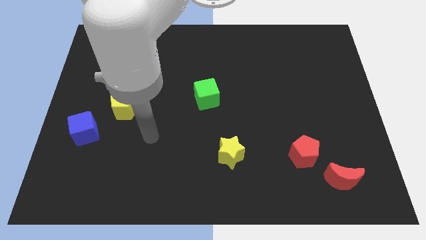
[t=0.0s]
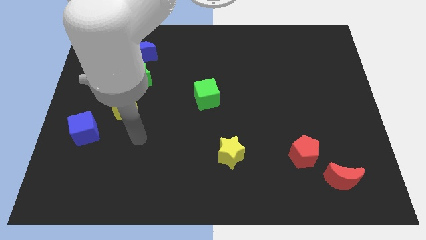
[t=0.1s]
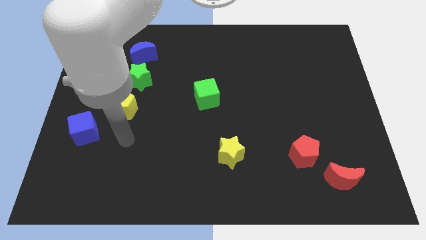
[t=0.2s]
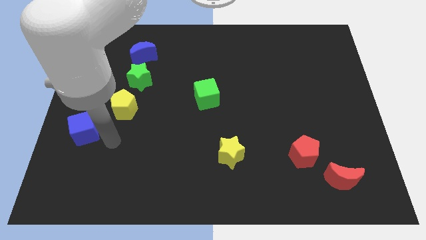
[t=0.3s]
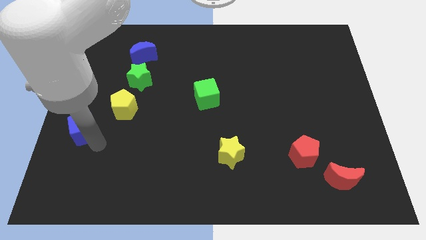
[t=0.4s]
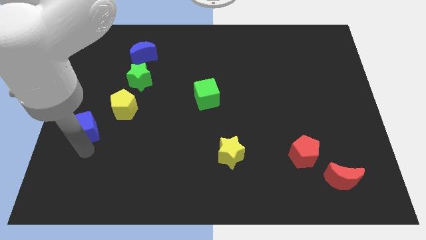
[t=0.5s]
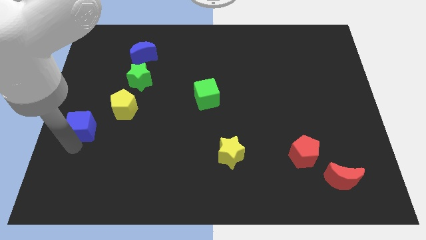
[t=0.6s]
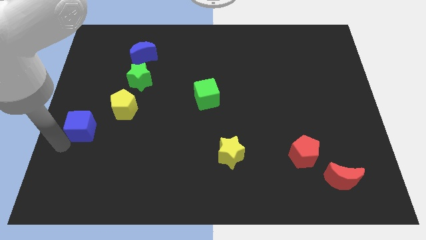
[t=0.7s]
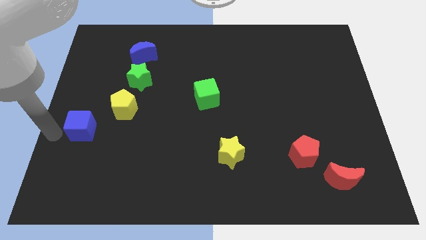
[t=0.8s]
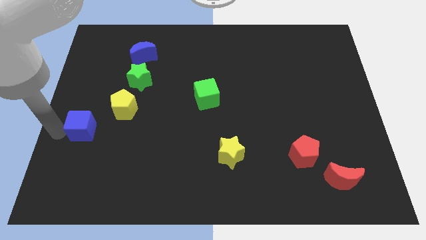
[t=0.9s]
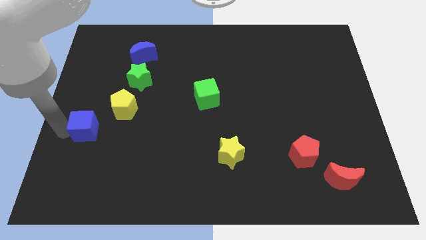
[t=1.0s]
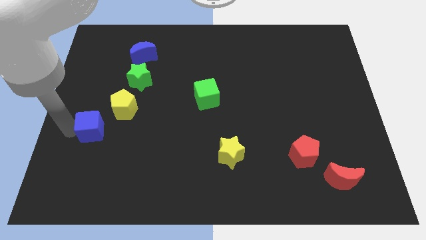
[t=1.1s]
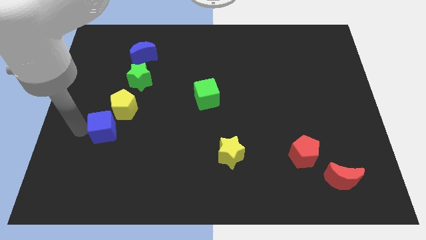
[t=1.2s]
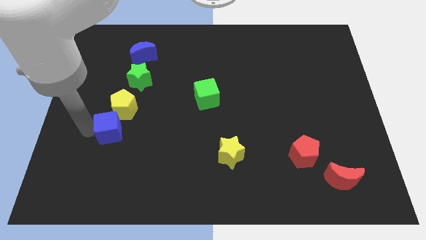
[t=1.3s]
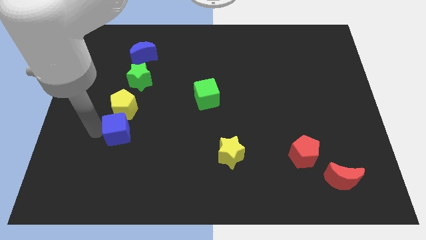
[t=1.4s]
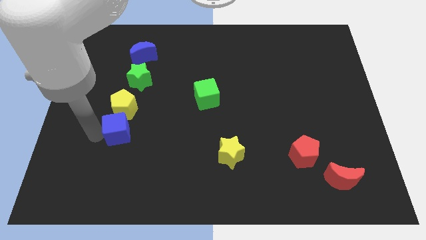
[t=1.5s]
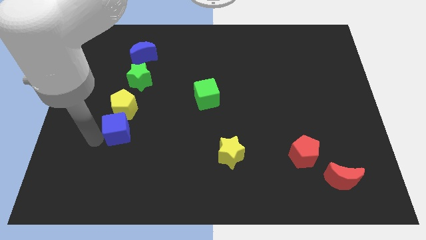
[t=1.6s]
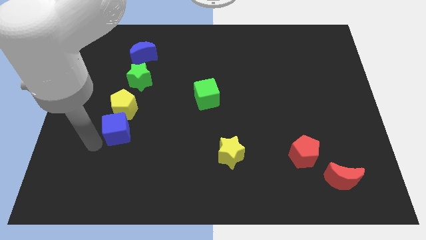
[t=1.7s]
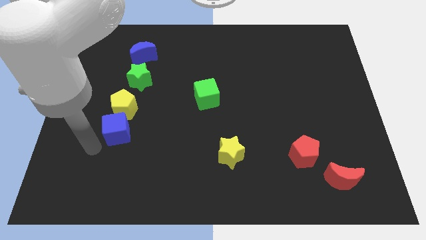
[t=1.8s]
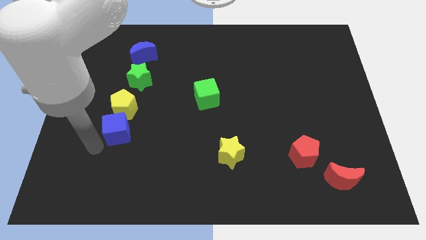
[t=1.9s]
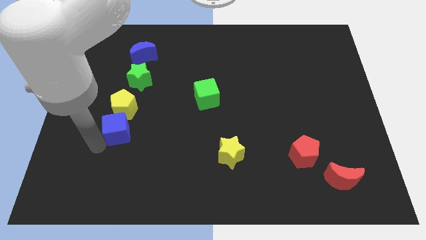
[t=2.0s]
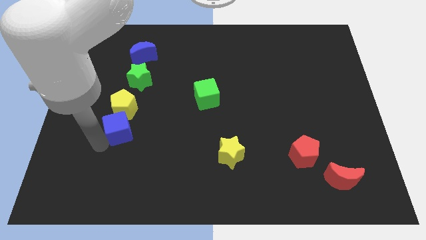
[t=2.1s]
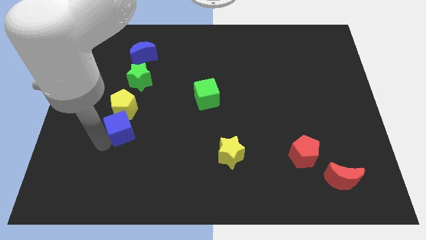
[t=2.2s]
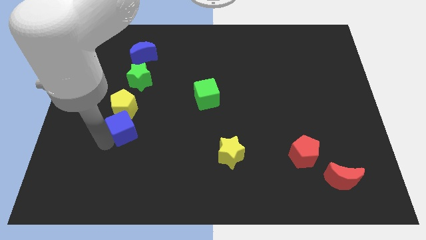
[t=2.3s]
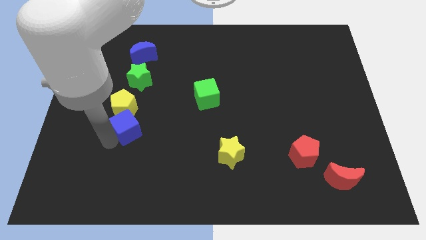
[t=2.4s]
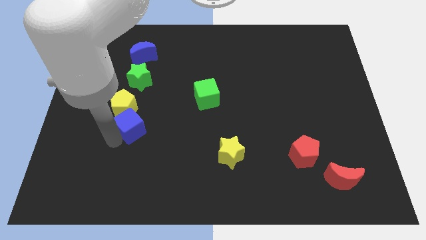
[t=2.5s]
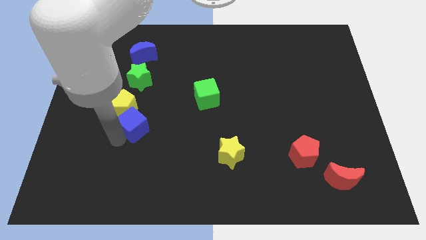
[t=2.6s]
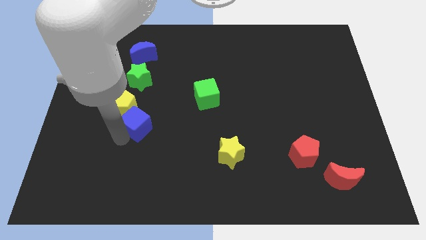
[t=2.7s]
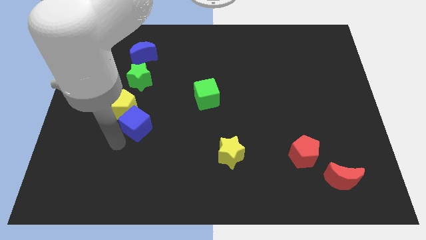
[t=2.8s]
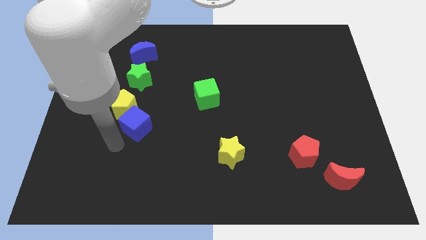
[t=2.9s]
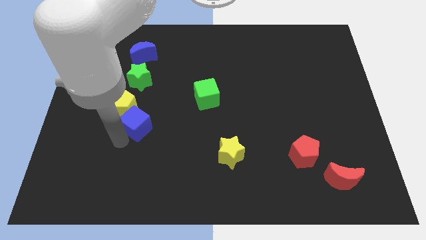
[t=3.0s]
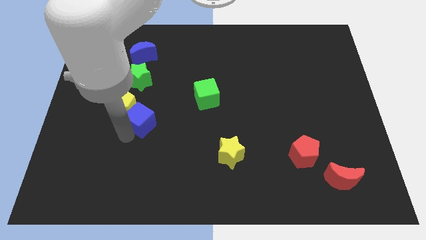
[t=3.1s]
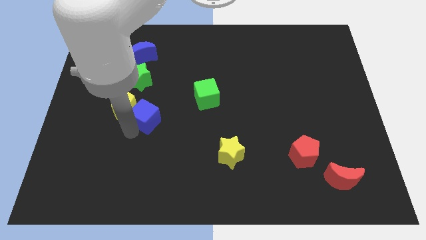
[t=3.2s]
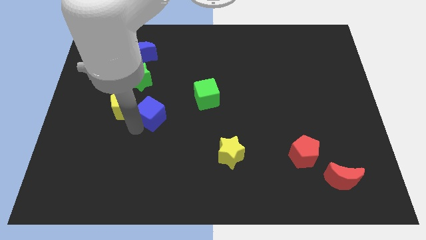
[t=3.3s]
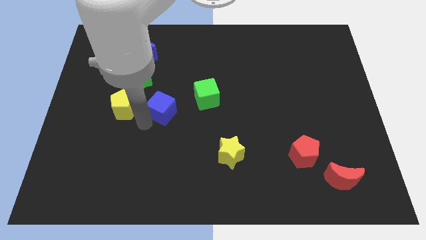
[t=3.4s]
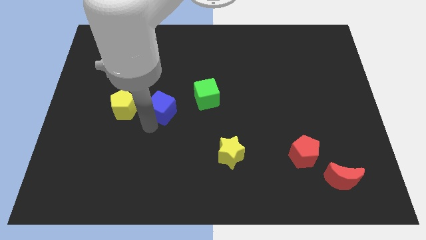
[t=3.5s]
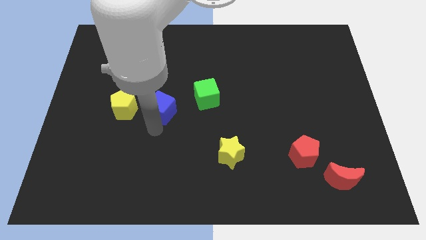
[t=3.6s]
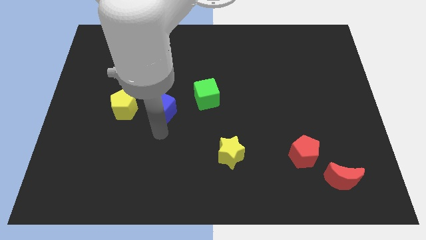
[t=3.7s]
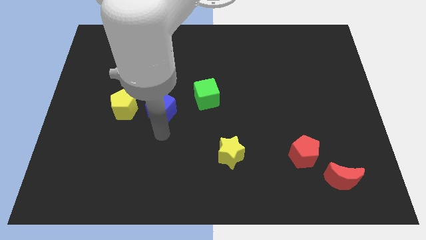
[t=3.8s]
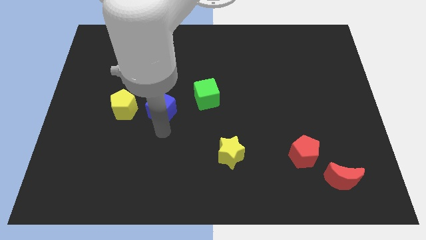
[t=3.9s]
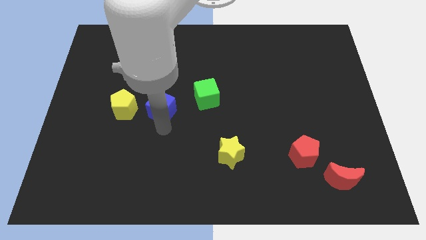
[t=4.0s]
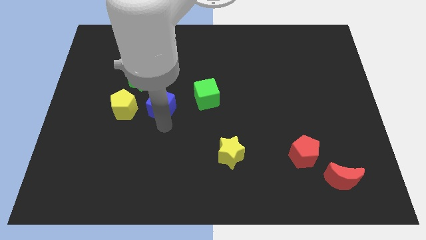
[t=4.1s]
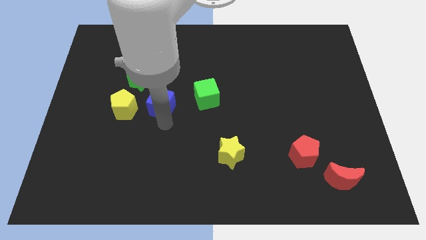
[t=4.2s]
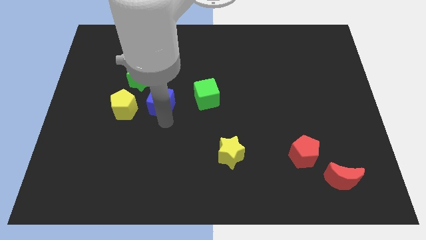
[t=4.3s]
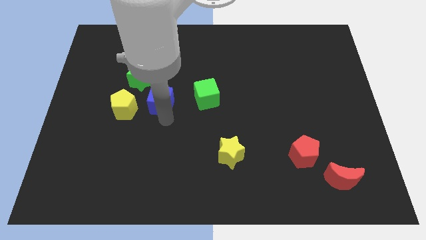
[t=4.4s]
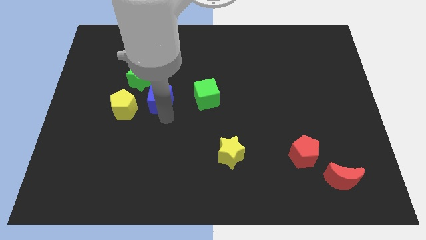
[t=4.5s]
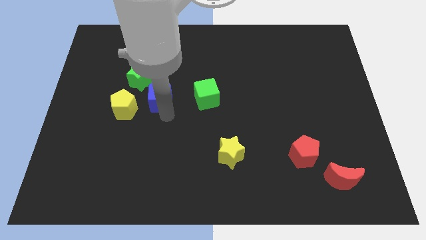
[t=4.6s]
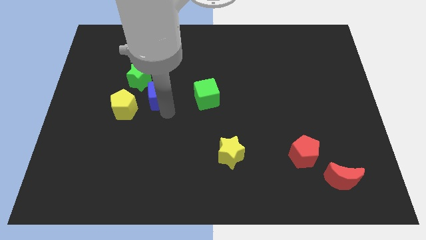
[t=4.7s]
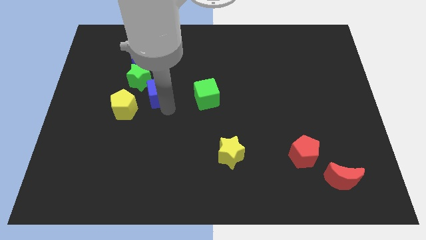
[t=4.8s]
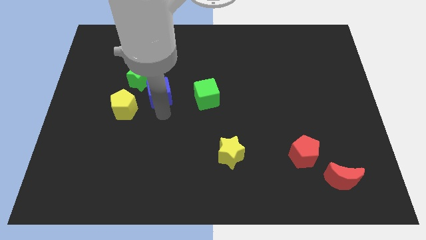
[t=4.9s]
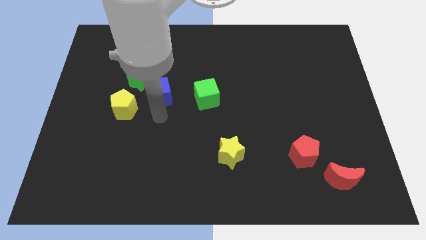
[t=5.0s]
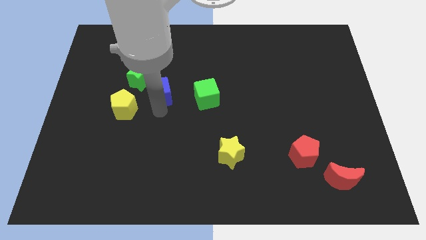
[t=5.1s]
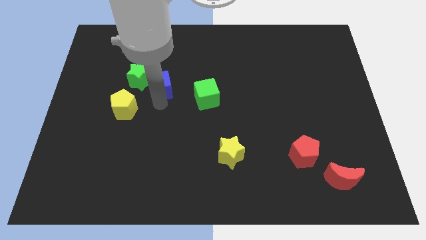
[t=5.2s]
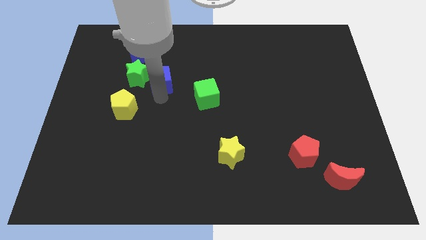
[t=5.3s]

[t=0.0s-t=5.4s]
move the blue cube to the bottom right of the blue moon

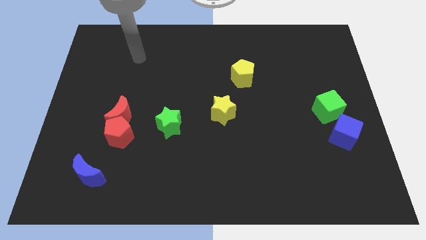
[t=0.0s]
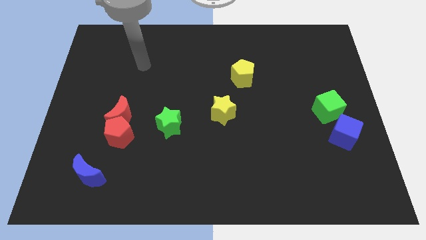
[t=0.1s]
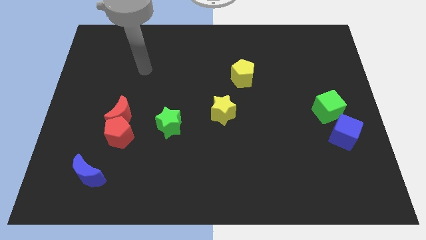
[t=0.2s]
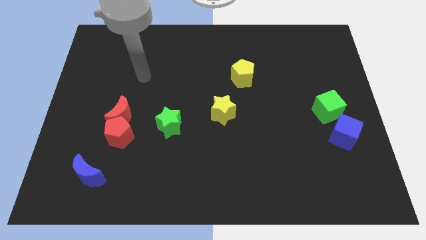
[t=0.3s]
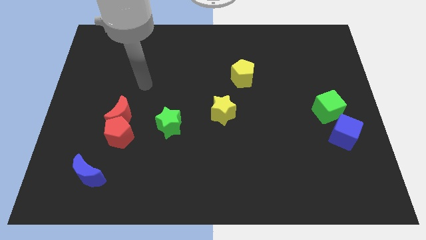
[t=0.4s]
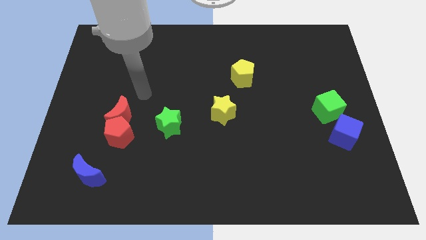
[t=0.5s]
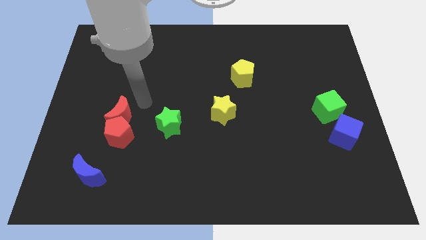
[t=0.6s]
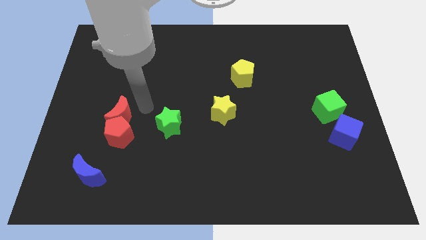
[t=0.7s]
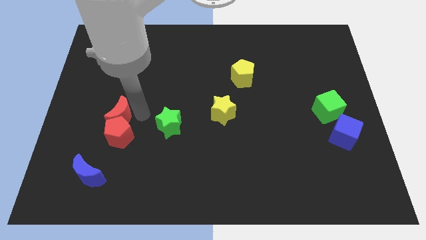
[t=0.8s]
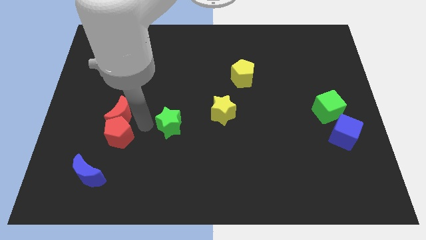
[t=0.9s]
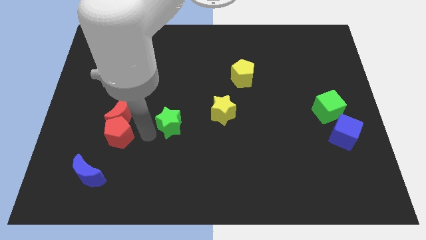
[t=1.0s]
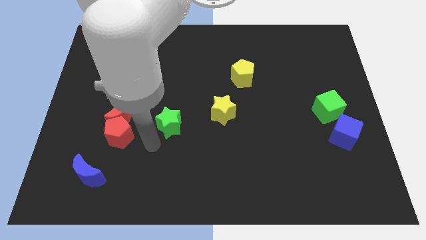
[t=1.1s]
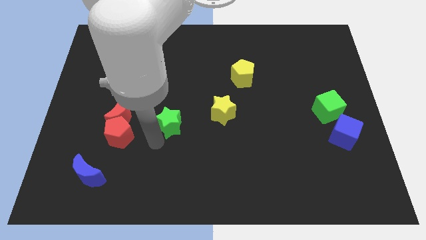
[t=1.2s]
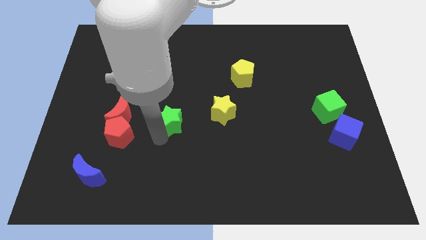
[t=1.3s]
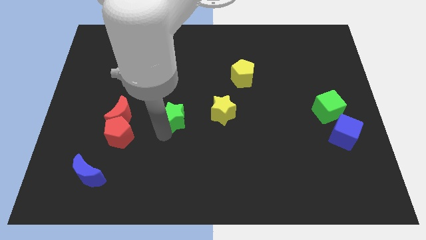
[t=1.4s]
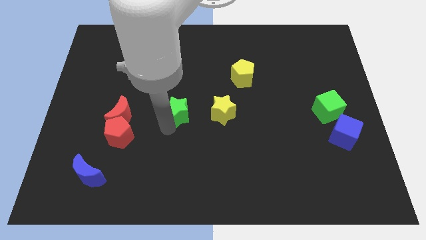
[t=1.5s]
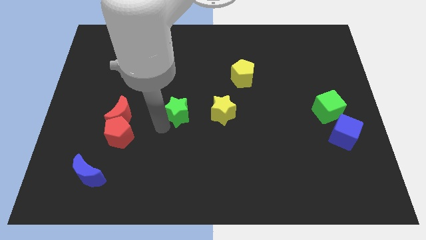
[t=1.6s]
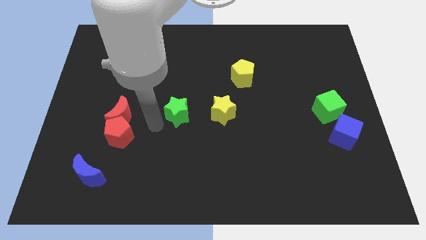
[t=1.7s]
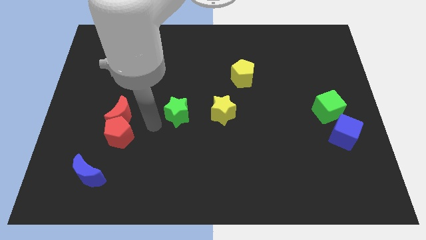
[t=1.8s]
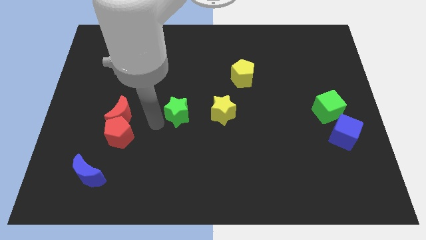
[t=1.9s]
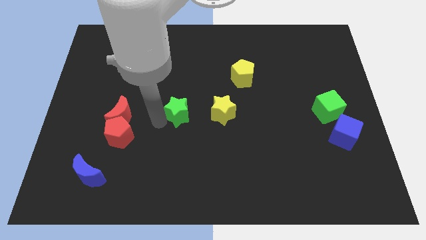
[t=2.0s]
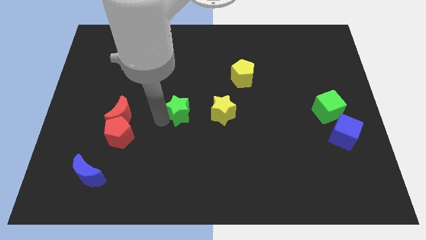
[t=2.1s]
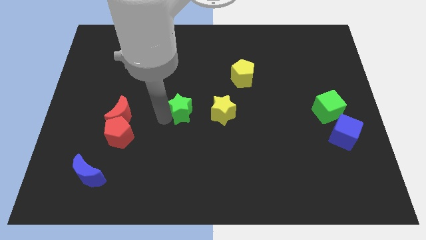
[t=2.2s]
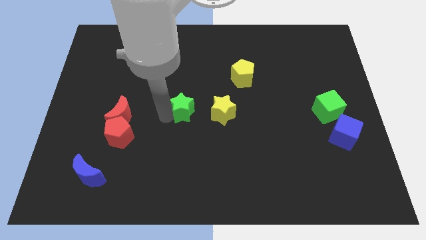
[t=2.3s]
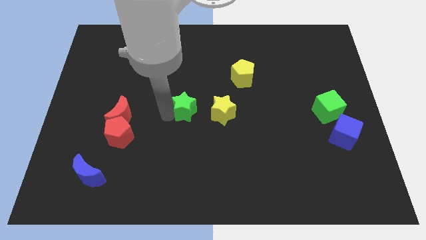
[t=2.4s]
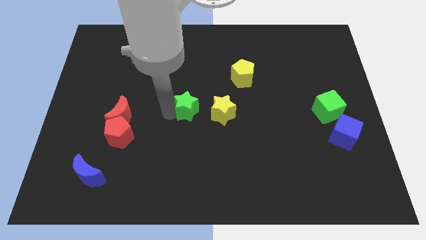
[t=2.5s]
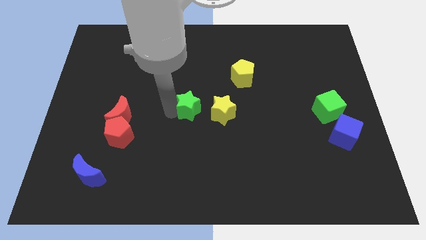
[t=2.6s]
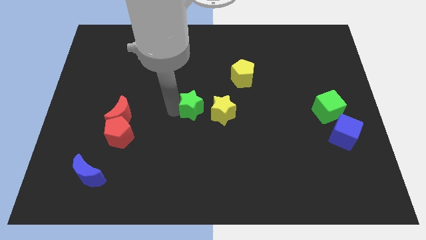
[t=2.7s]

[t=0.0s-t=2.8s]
move the green star diagonally up and to the left of the yellow star
